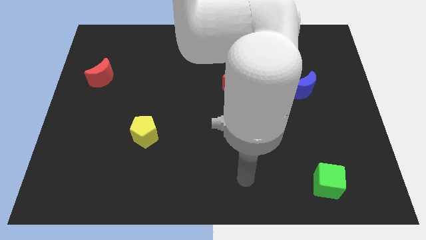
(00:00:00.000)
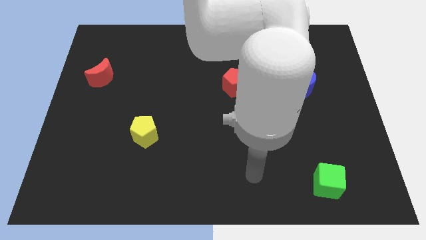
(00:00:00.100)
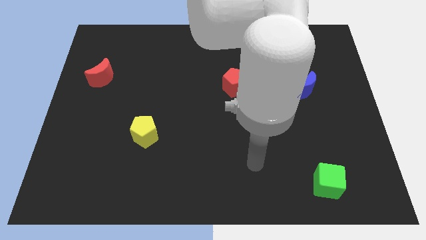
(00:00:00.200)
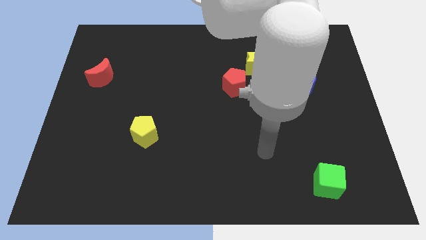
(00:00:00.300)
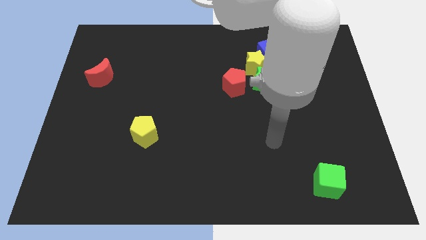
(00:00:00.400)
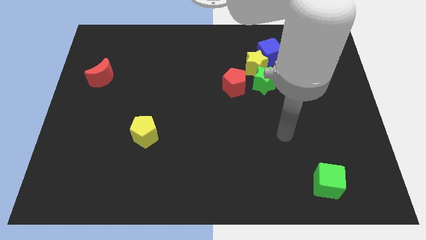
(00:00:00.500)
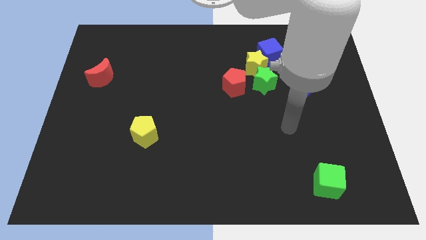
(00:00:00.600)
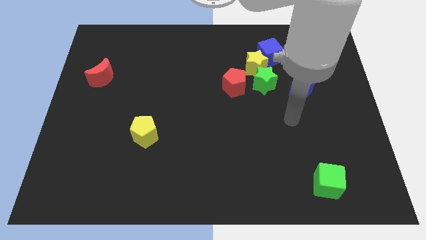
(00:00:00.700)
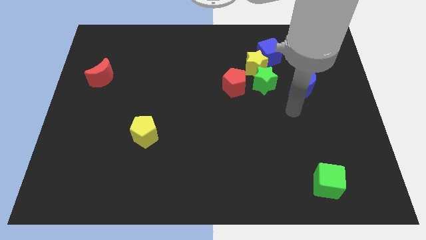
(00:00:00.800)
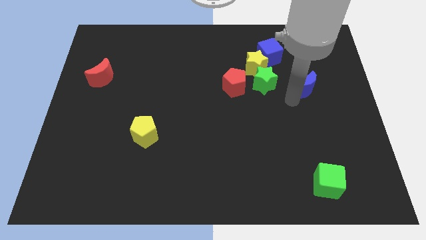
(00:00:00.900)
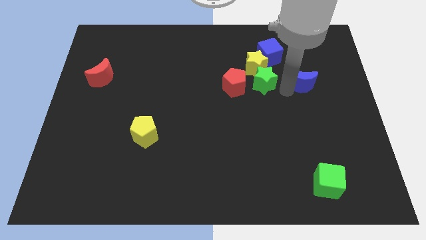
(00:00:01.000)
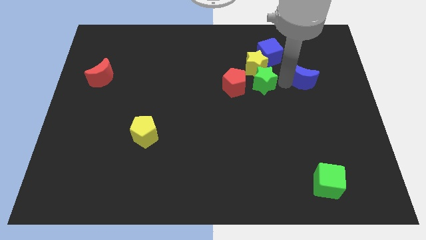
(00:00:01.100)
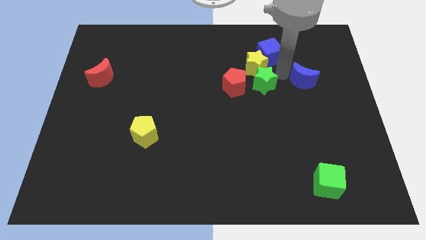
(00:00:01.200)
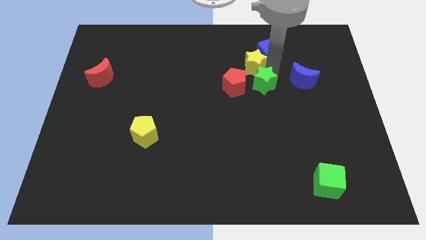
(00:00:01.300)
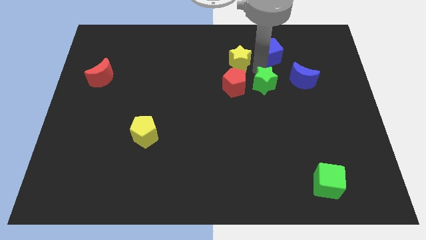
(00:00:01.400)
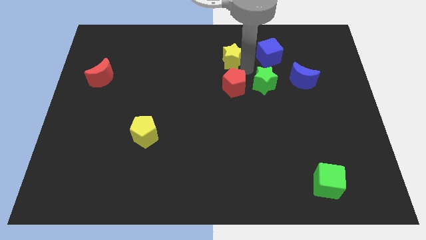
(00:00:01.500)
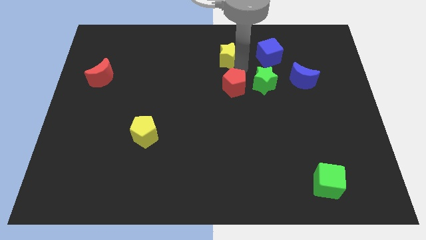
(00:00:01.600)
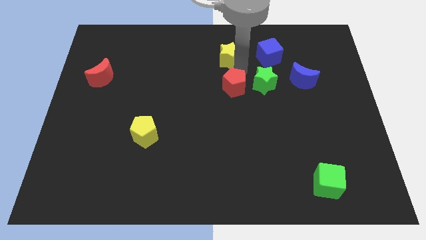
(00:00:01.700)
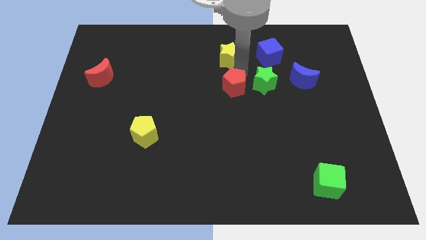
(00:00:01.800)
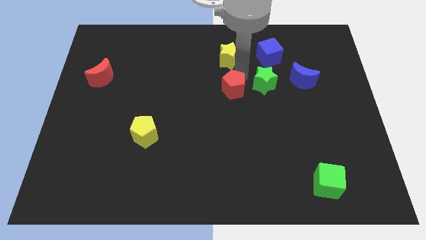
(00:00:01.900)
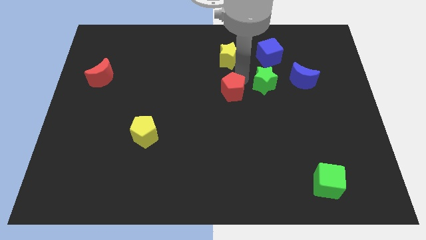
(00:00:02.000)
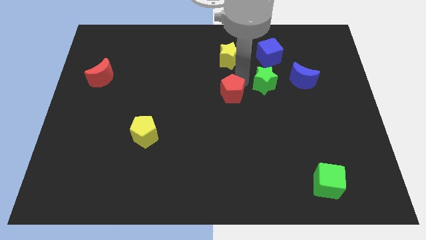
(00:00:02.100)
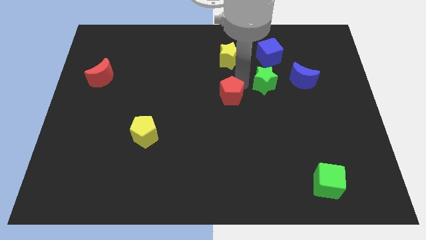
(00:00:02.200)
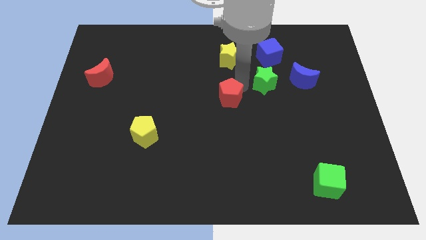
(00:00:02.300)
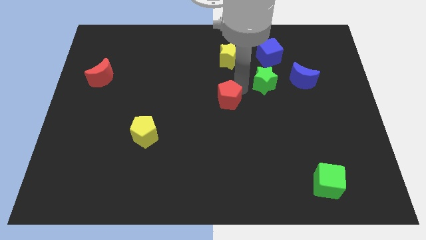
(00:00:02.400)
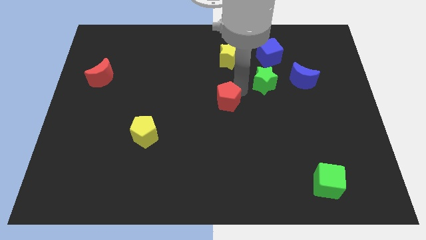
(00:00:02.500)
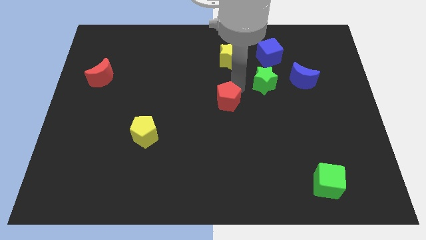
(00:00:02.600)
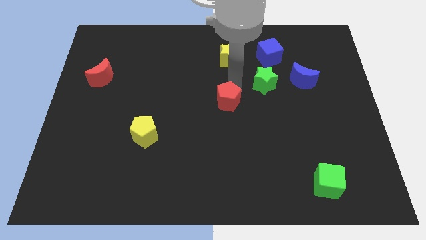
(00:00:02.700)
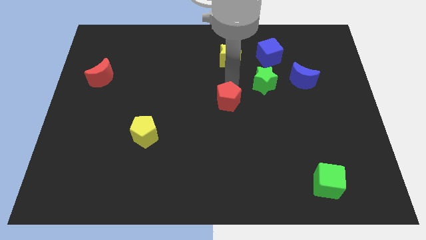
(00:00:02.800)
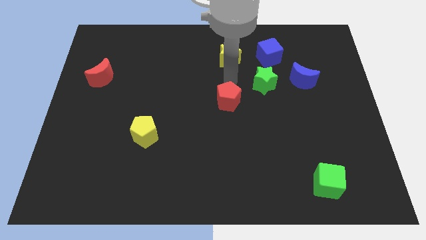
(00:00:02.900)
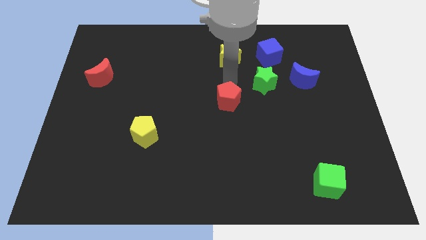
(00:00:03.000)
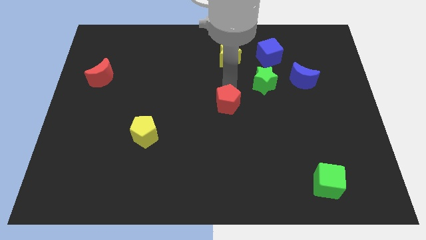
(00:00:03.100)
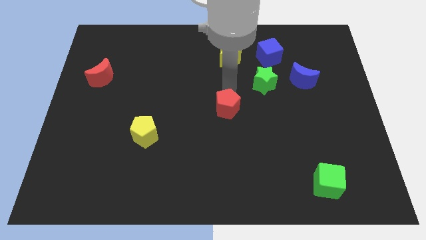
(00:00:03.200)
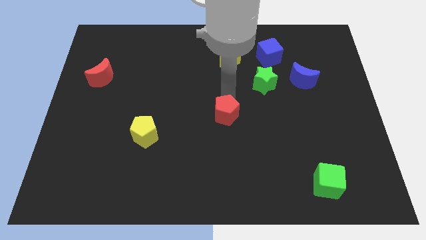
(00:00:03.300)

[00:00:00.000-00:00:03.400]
push the red pentagon a little downwards

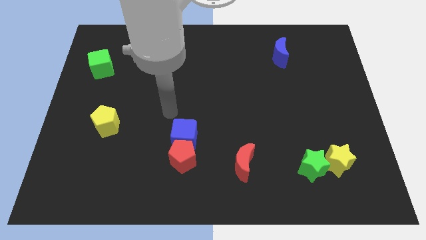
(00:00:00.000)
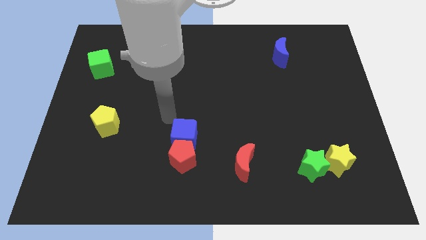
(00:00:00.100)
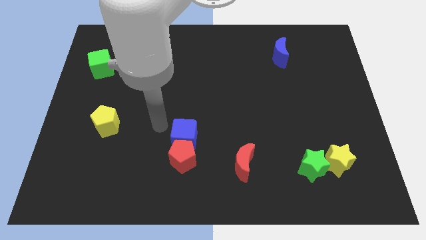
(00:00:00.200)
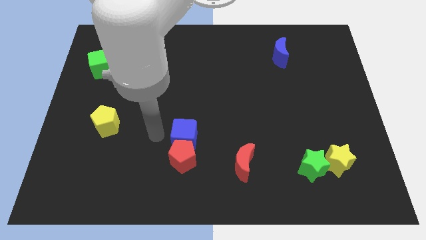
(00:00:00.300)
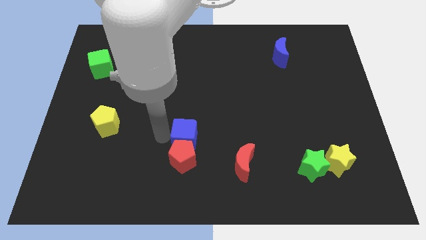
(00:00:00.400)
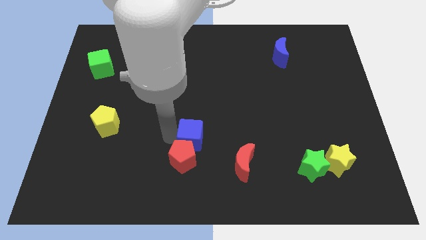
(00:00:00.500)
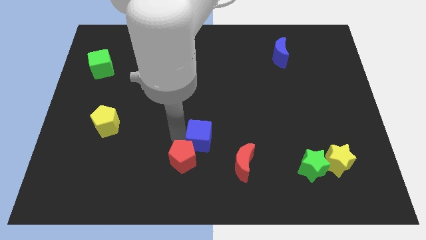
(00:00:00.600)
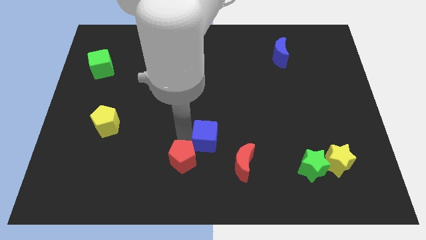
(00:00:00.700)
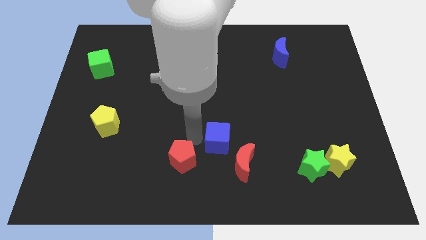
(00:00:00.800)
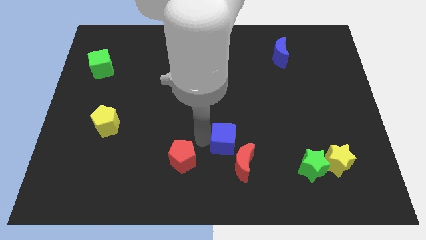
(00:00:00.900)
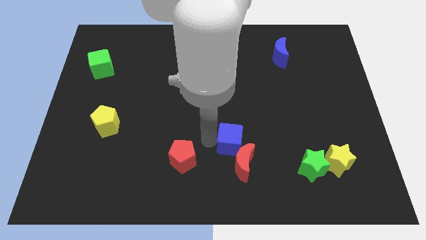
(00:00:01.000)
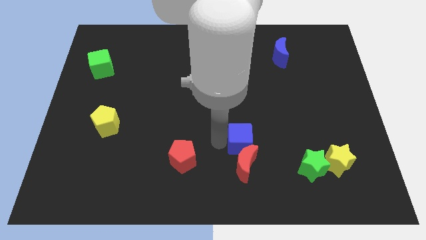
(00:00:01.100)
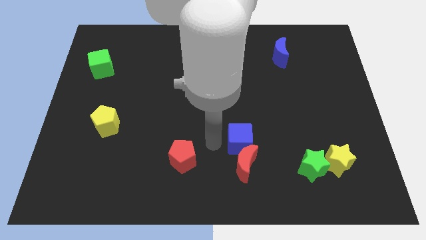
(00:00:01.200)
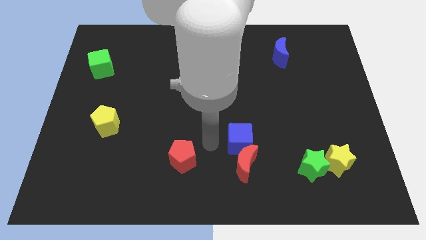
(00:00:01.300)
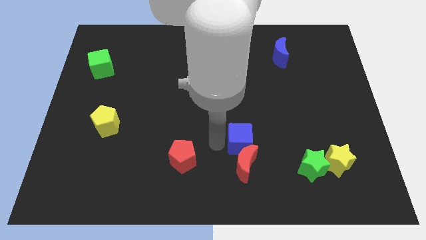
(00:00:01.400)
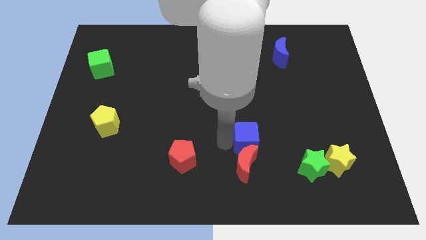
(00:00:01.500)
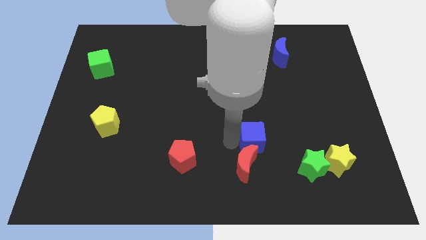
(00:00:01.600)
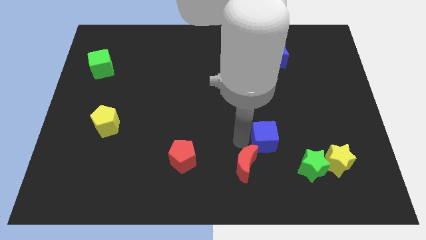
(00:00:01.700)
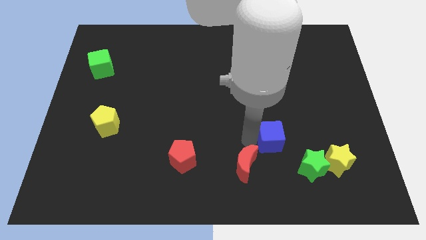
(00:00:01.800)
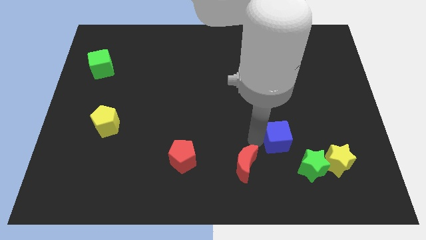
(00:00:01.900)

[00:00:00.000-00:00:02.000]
slide the blue cube right

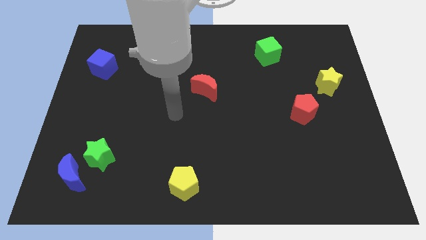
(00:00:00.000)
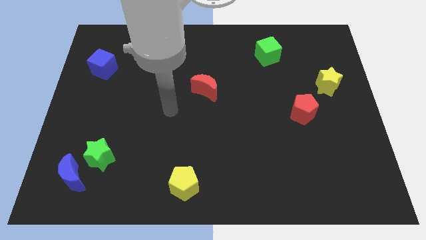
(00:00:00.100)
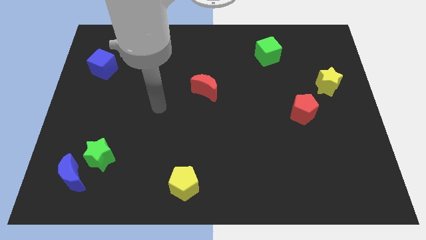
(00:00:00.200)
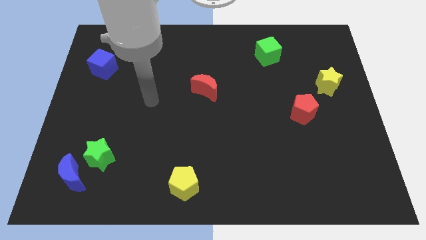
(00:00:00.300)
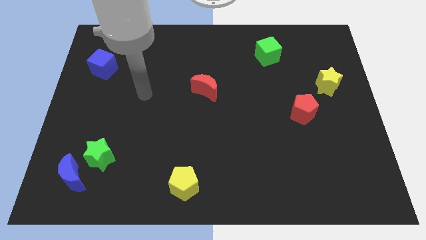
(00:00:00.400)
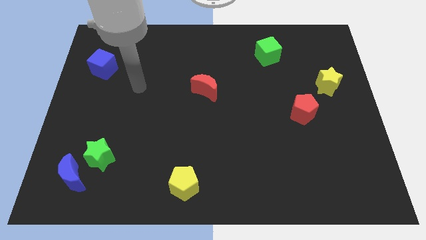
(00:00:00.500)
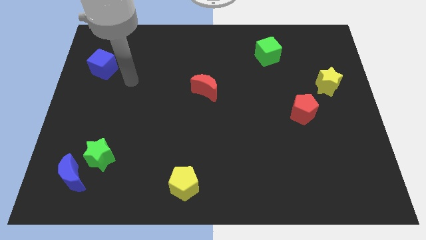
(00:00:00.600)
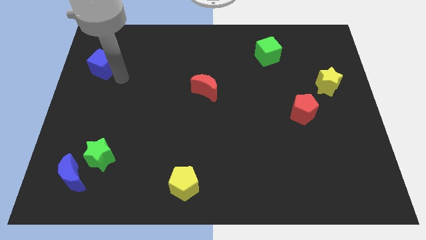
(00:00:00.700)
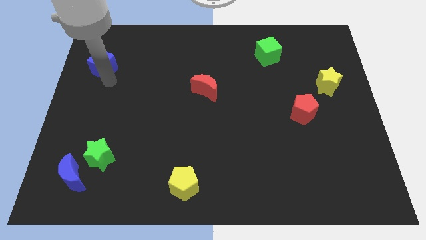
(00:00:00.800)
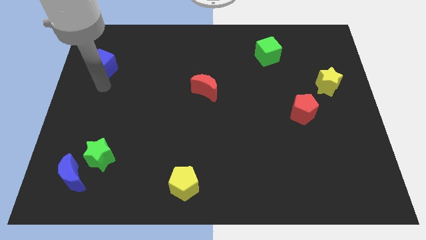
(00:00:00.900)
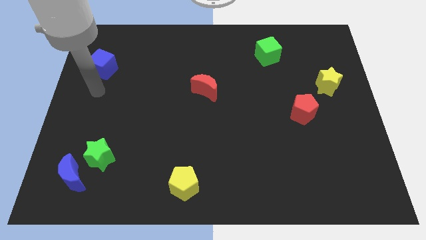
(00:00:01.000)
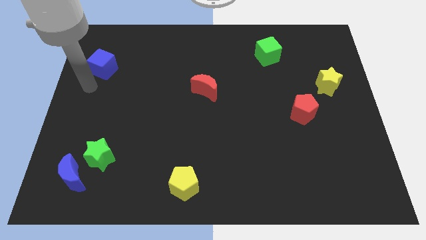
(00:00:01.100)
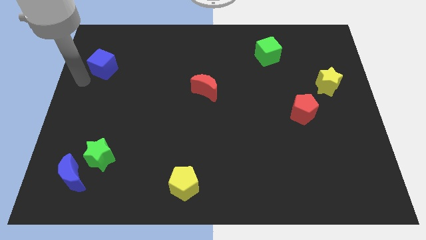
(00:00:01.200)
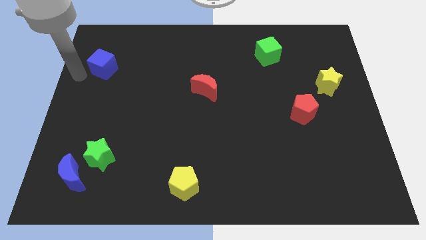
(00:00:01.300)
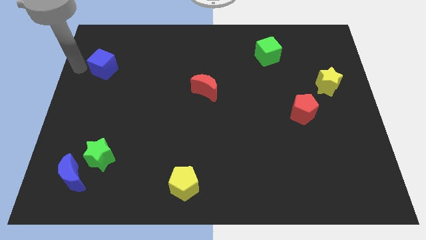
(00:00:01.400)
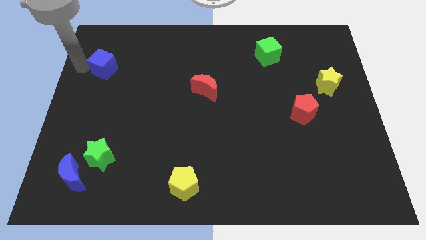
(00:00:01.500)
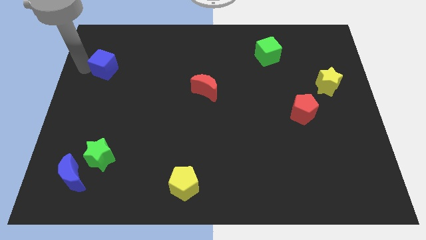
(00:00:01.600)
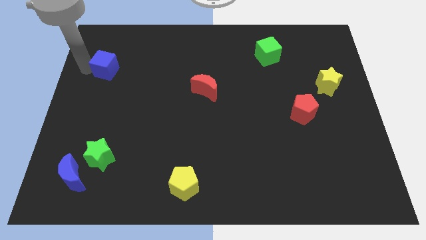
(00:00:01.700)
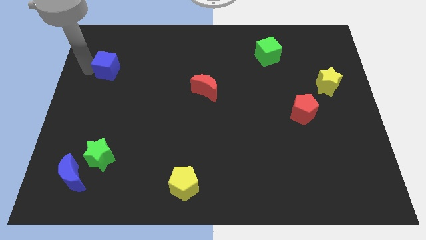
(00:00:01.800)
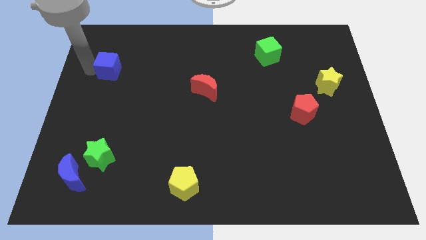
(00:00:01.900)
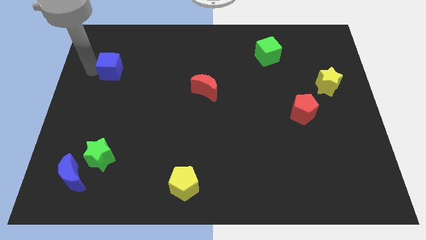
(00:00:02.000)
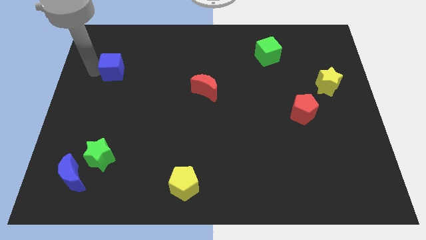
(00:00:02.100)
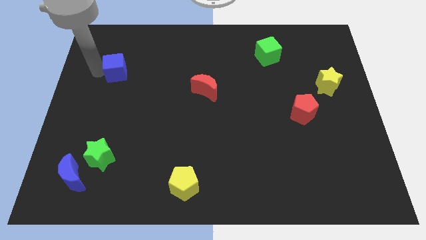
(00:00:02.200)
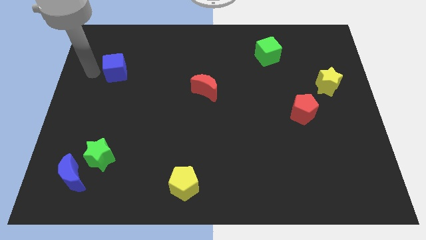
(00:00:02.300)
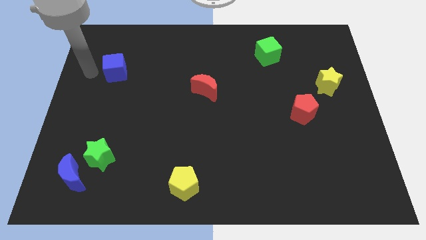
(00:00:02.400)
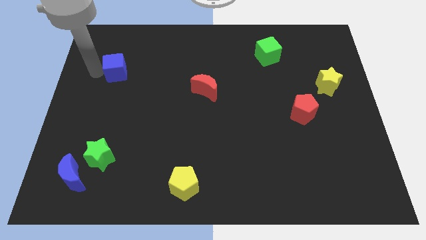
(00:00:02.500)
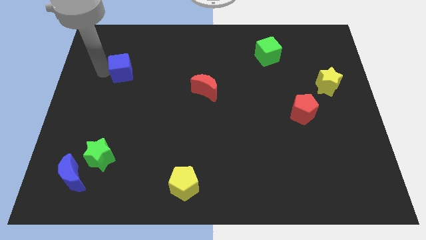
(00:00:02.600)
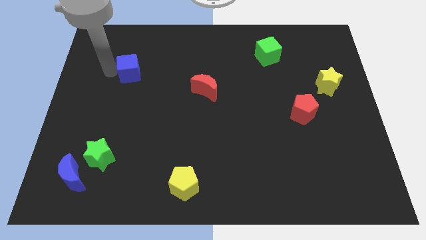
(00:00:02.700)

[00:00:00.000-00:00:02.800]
push the blue cube right a bit
